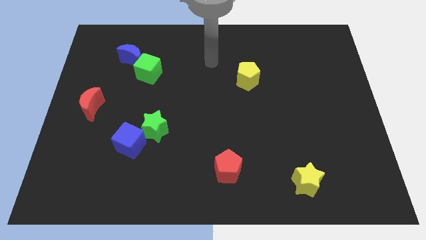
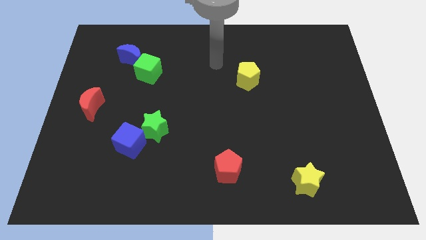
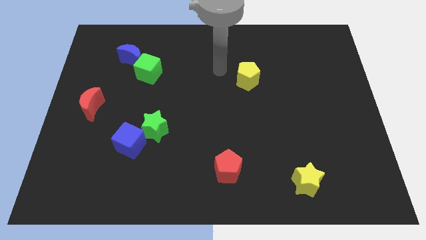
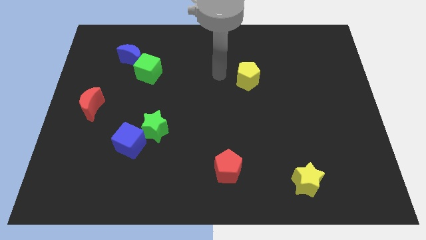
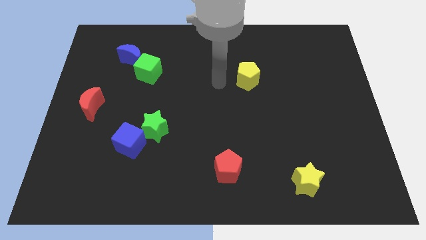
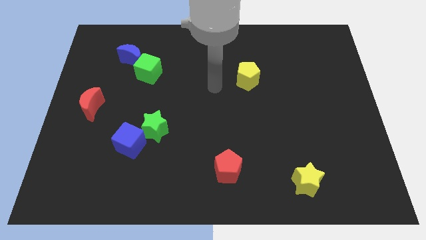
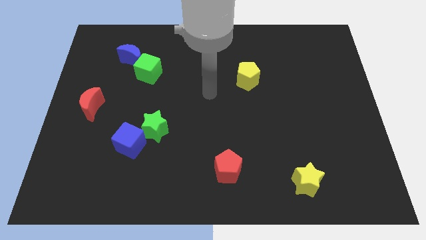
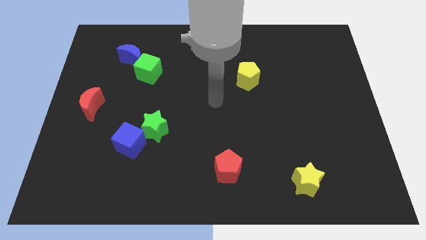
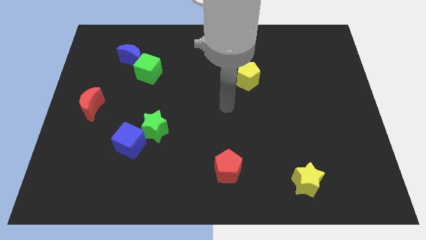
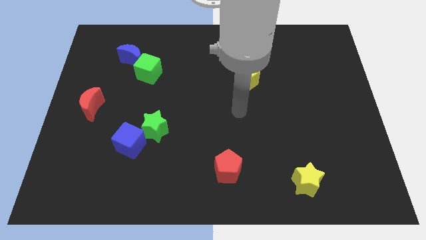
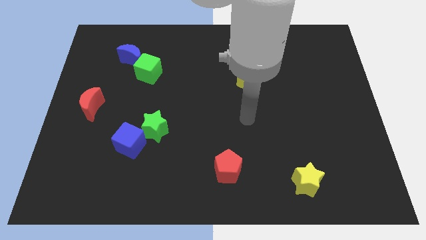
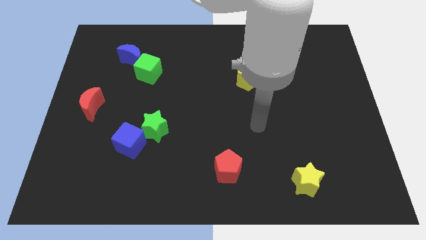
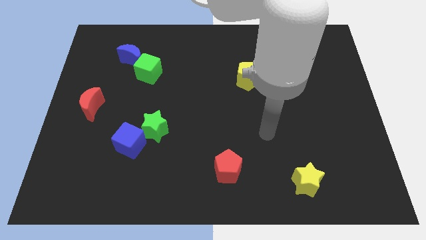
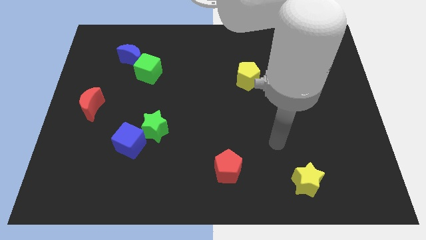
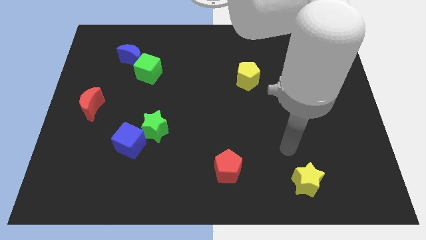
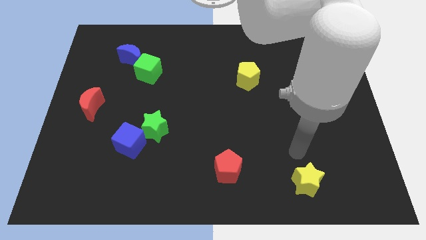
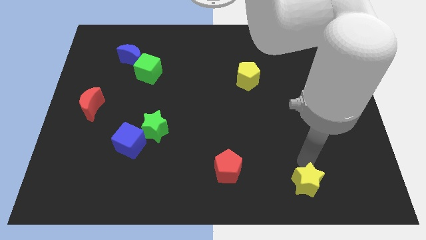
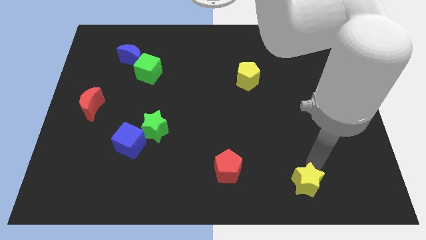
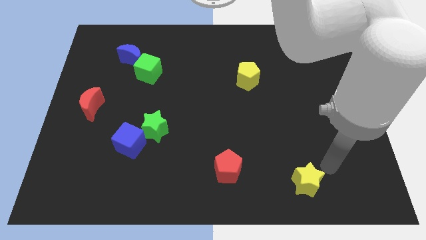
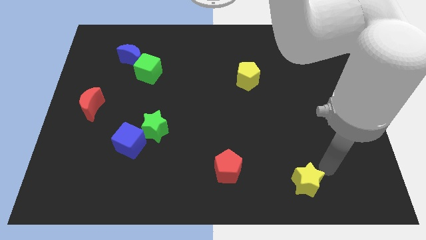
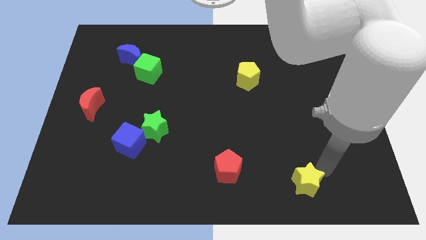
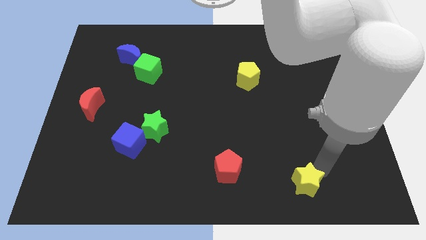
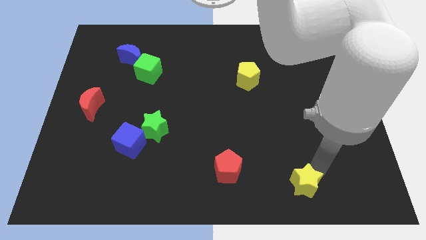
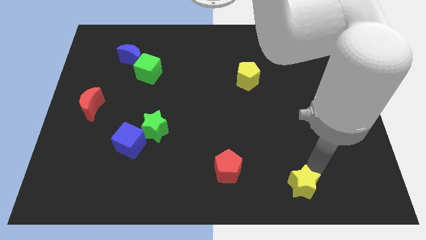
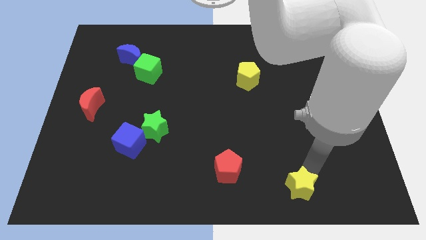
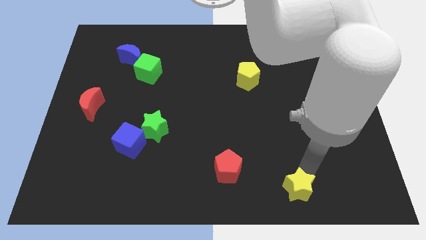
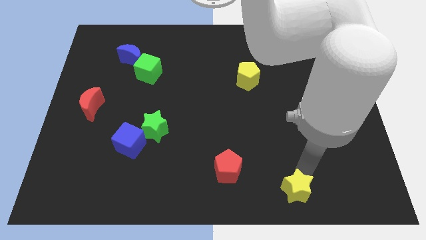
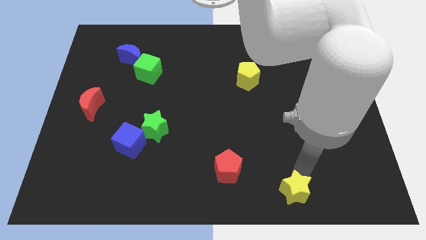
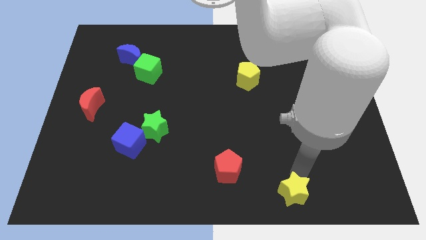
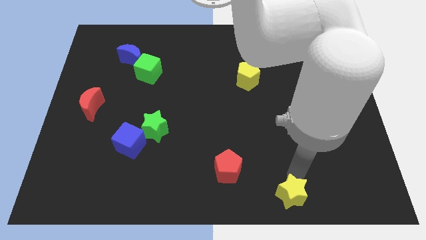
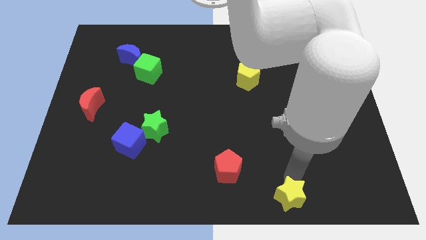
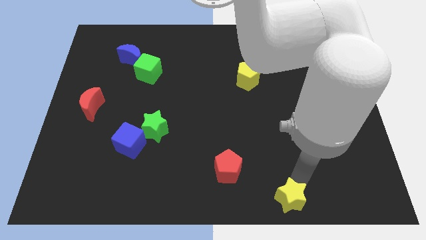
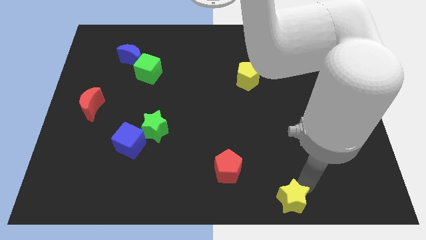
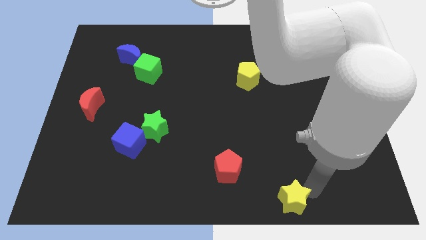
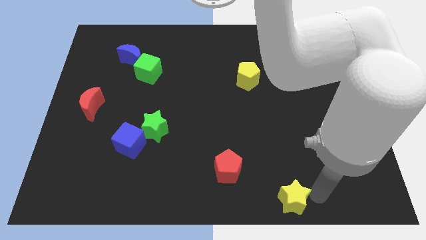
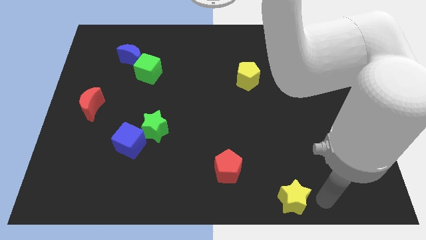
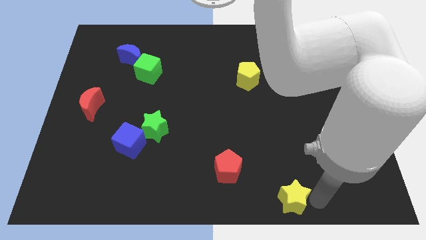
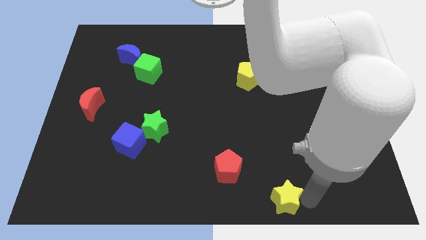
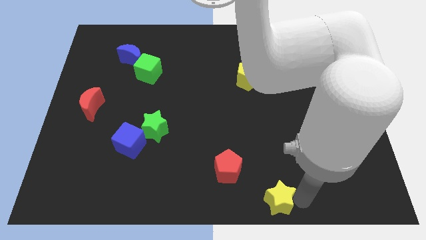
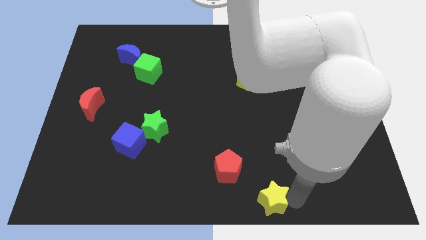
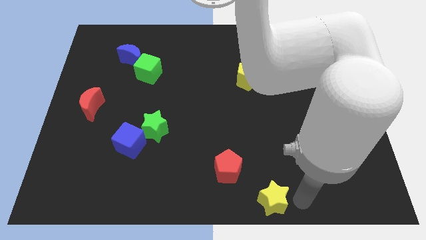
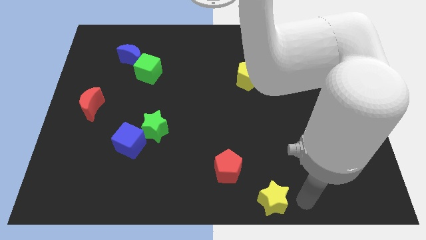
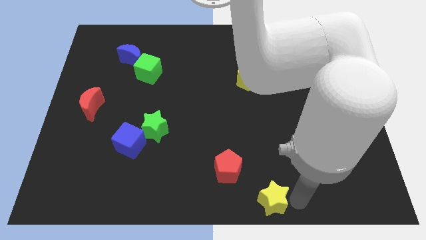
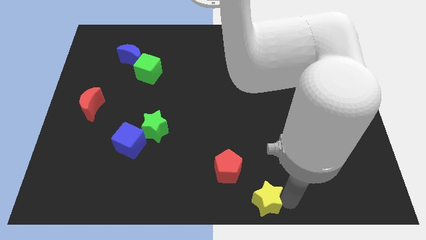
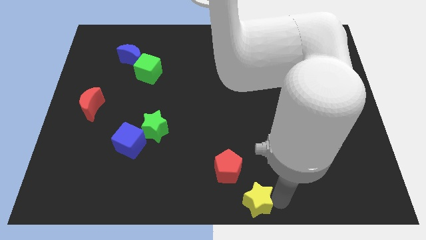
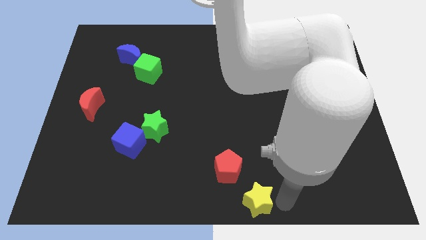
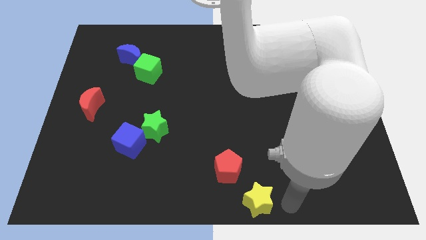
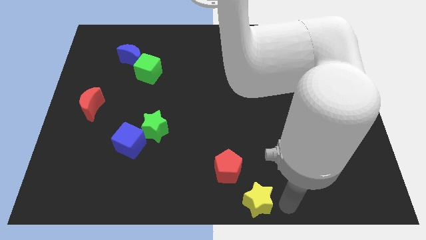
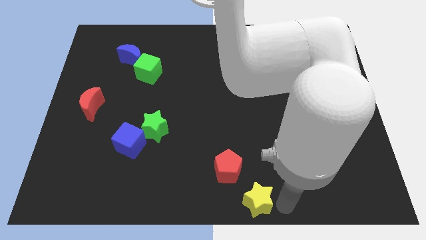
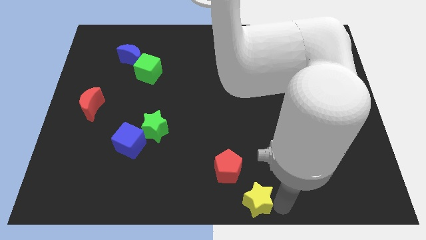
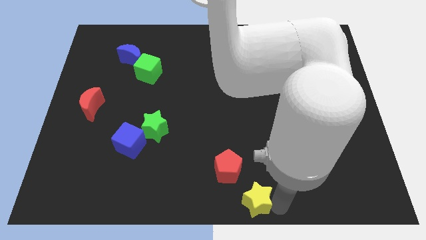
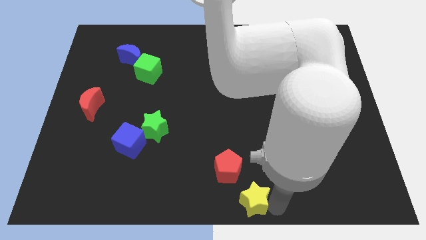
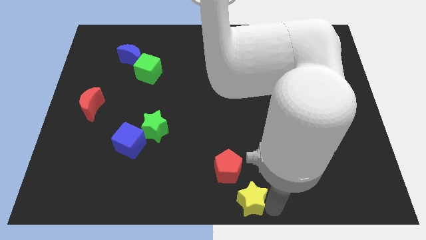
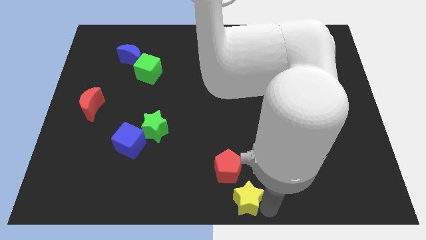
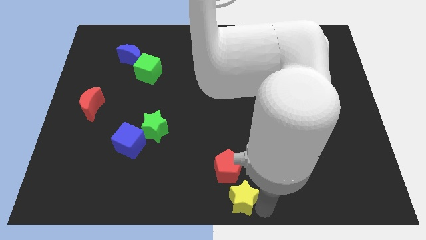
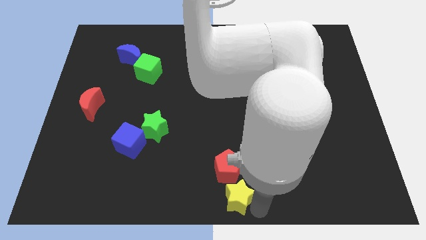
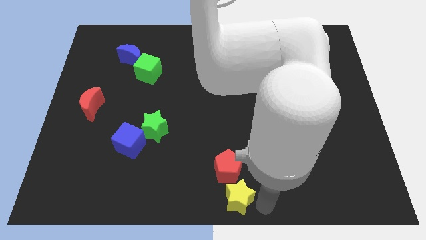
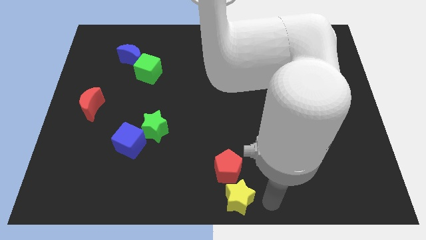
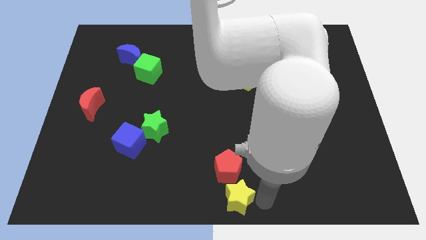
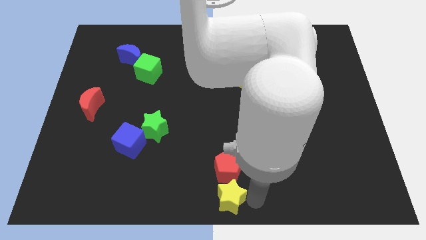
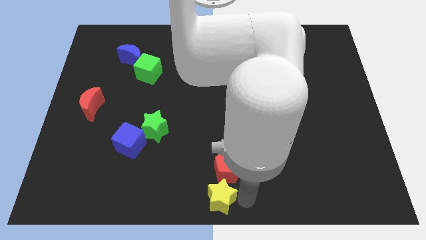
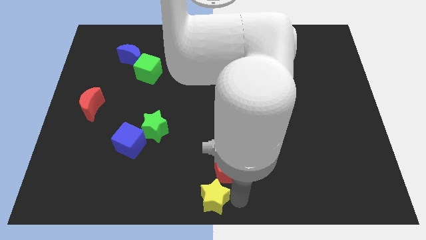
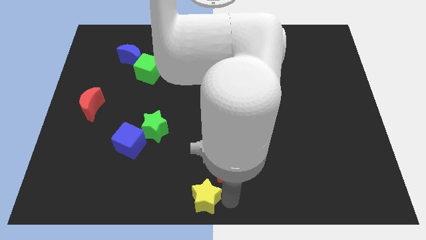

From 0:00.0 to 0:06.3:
push the yellow star to the left

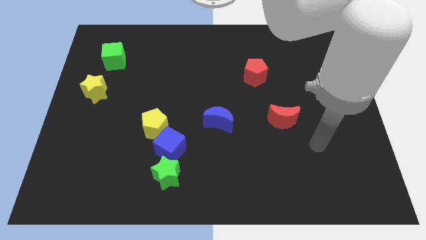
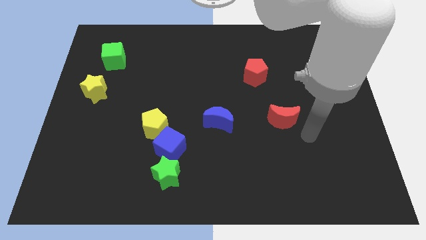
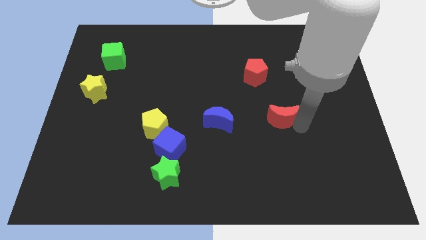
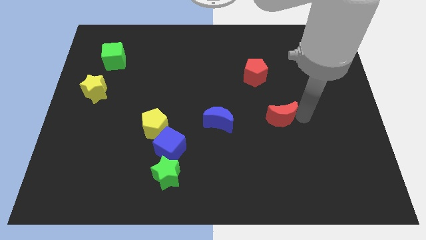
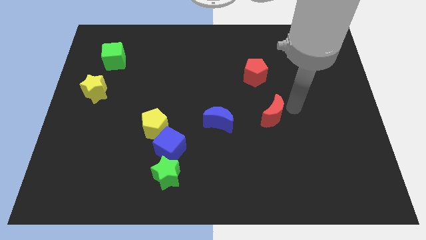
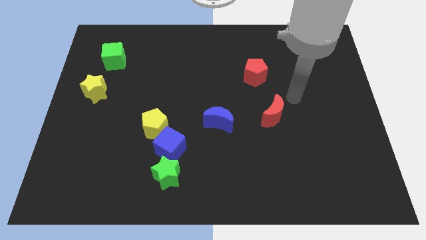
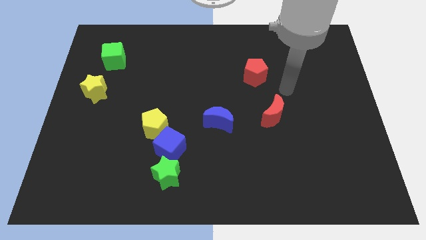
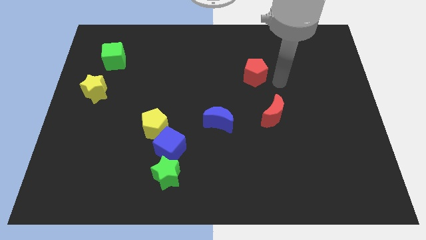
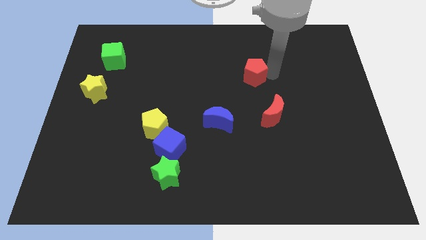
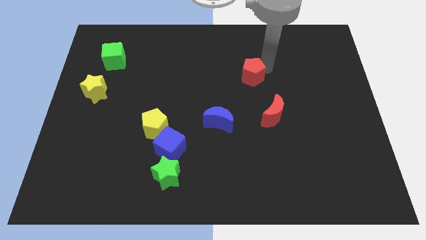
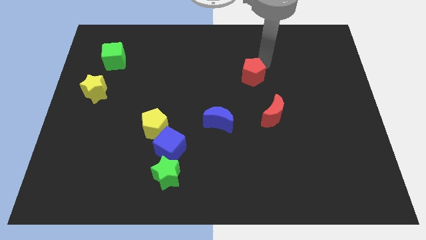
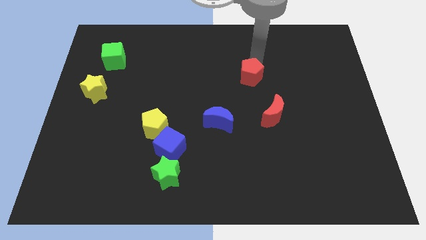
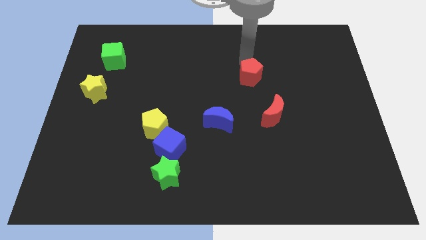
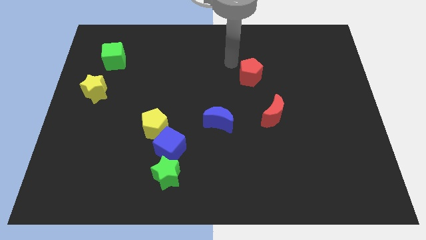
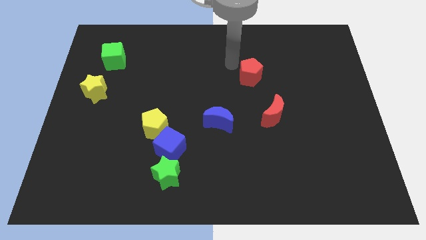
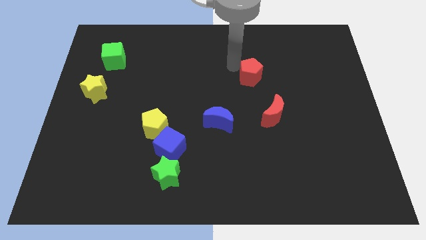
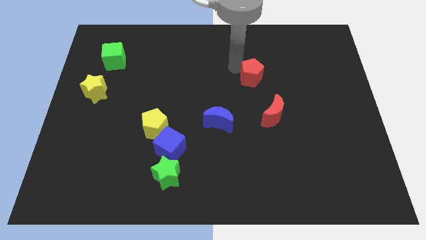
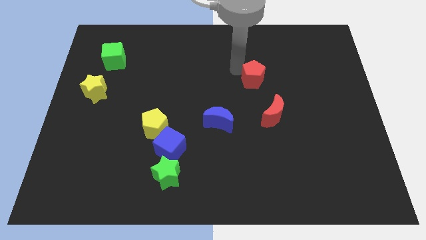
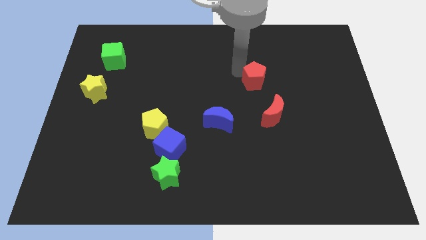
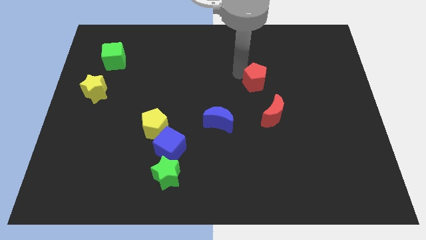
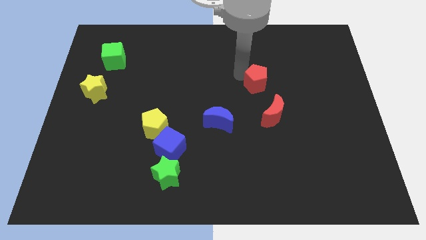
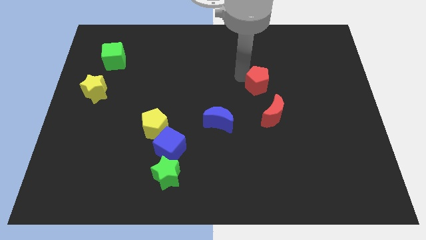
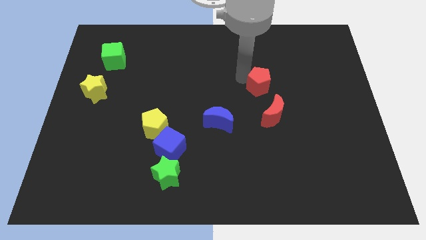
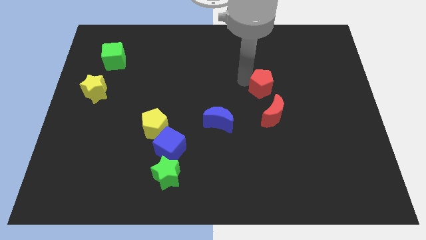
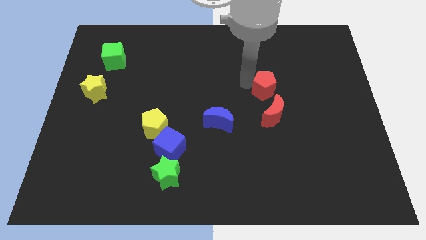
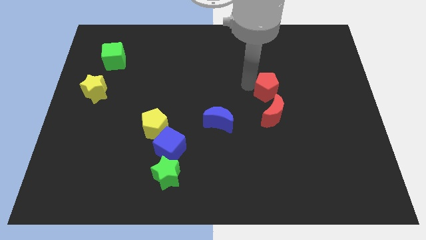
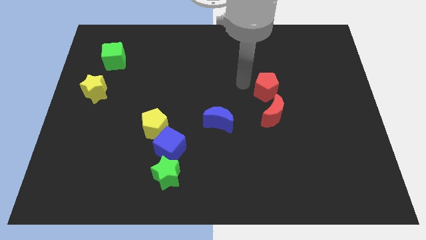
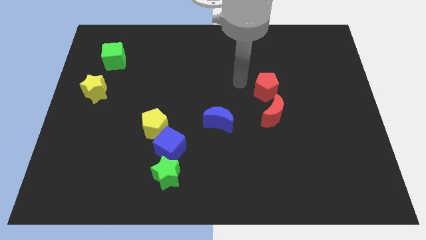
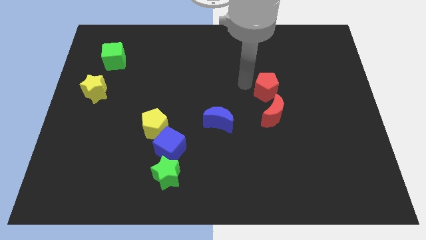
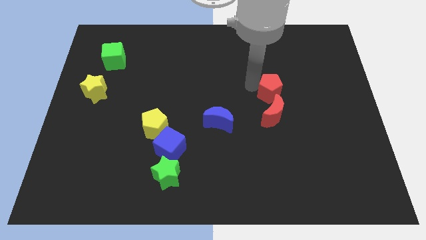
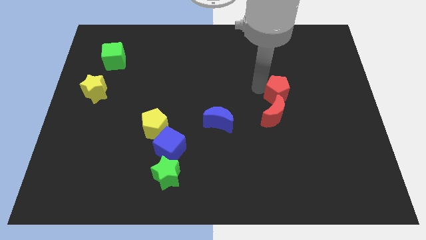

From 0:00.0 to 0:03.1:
move the red pentagon downwards and right a little bit
